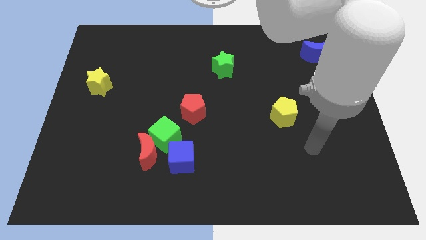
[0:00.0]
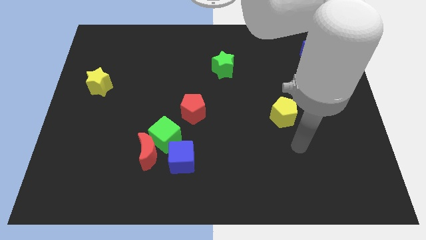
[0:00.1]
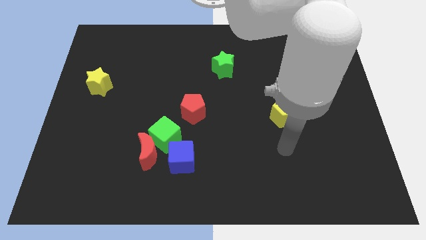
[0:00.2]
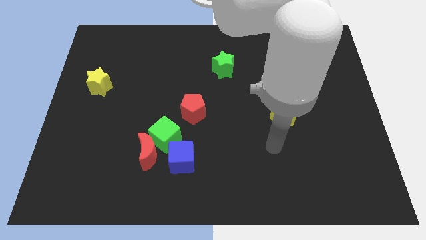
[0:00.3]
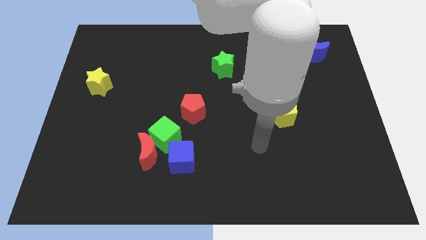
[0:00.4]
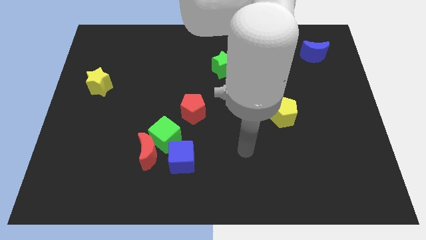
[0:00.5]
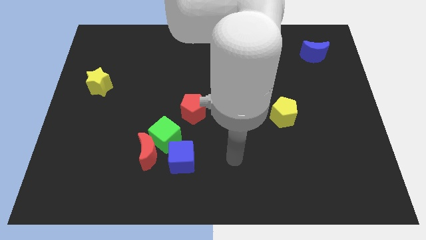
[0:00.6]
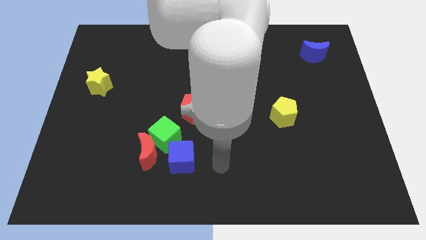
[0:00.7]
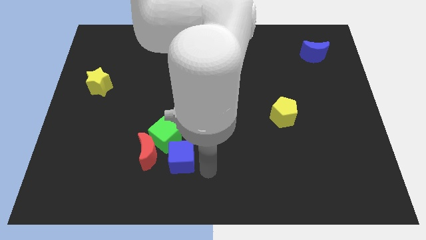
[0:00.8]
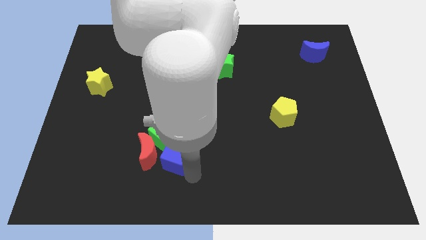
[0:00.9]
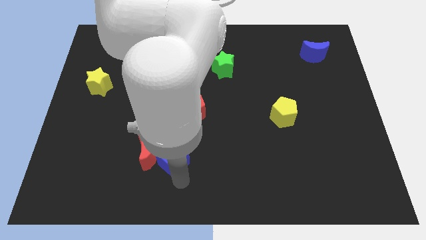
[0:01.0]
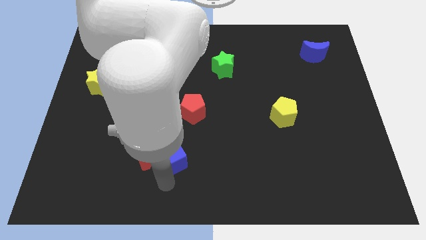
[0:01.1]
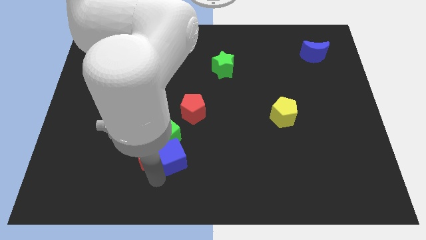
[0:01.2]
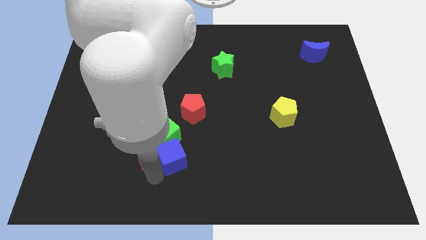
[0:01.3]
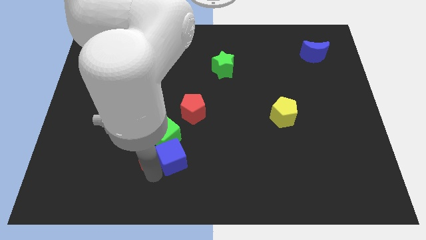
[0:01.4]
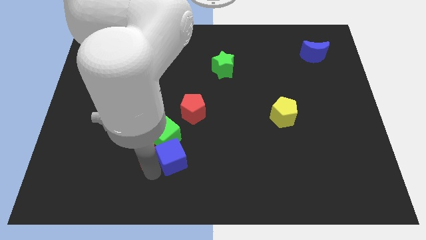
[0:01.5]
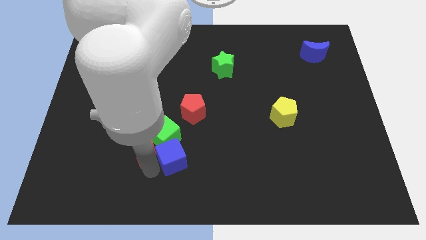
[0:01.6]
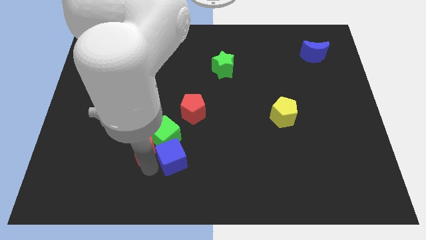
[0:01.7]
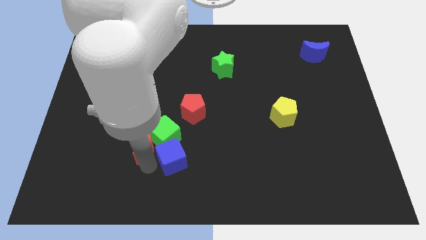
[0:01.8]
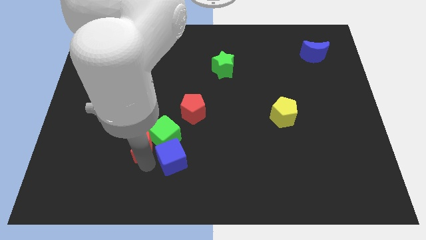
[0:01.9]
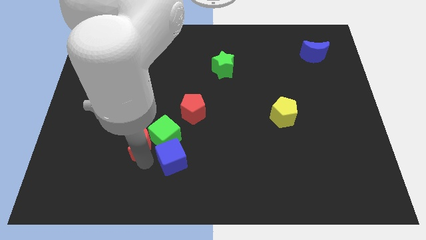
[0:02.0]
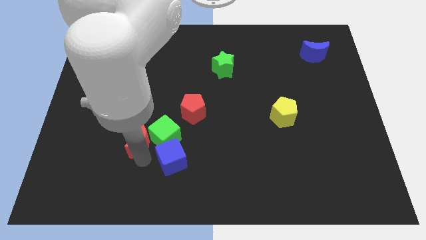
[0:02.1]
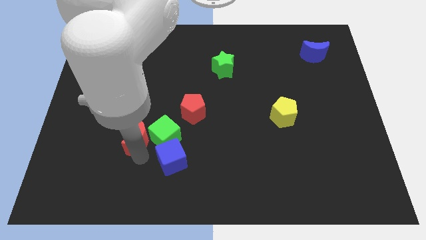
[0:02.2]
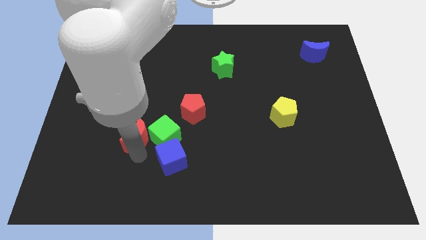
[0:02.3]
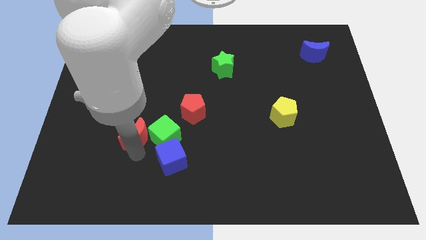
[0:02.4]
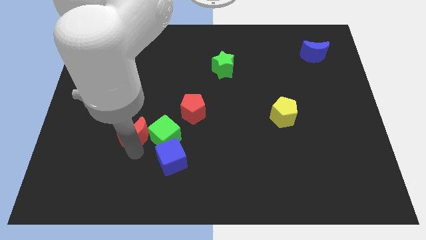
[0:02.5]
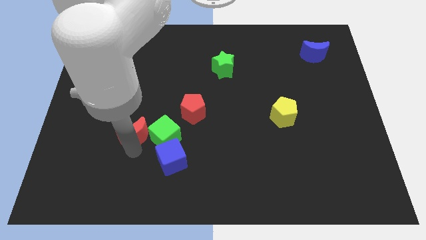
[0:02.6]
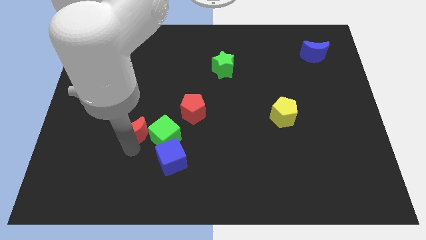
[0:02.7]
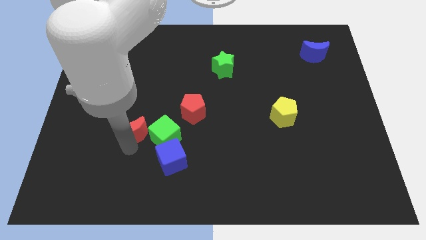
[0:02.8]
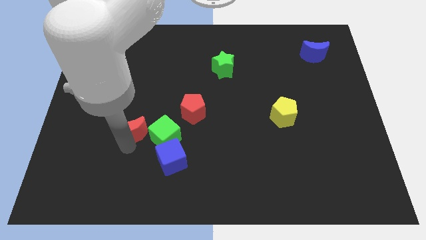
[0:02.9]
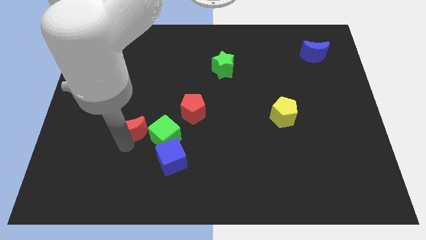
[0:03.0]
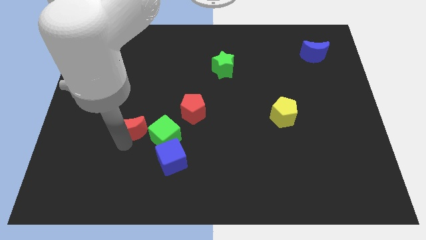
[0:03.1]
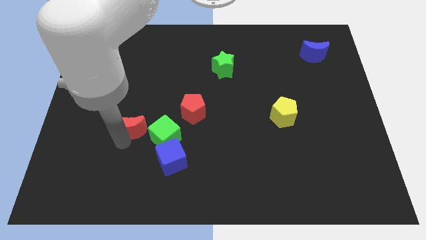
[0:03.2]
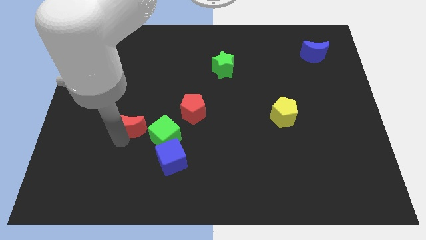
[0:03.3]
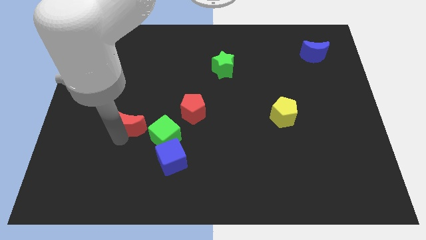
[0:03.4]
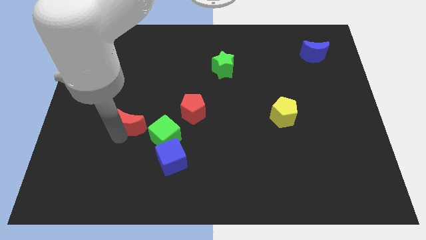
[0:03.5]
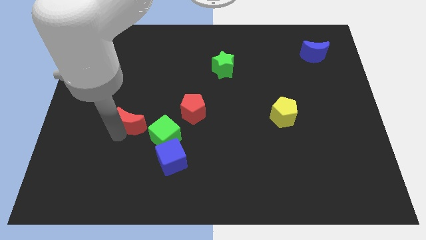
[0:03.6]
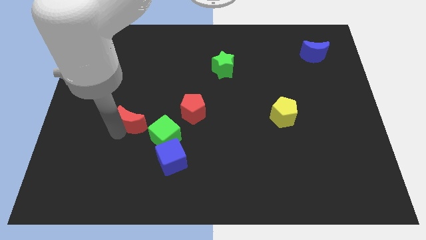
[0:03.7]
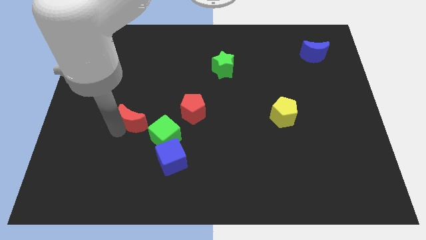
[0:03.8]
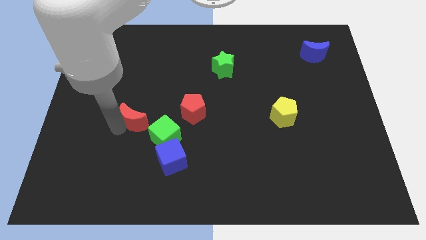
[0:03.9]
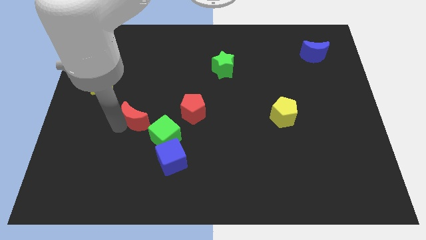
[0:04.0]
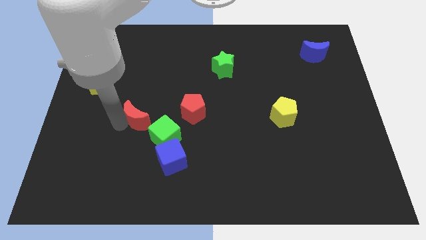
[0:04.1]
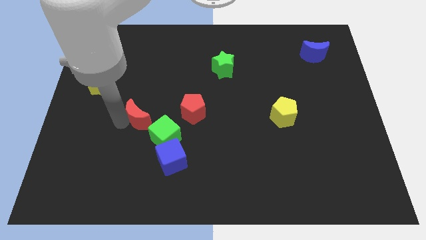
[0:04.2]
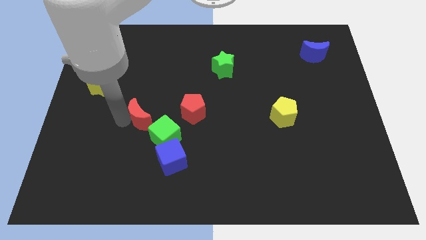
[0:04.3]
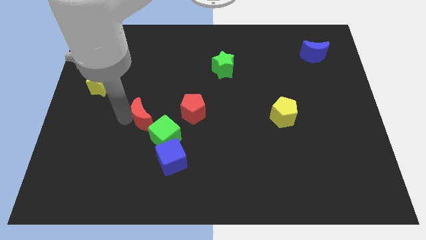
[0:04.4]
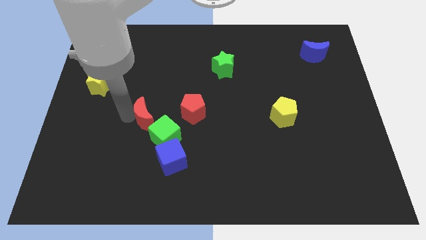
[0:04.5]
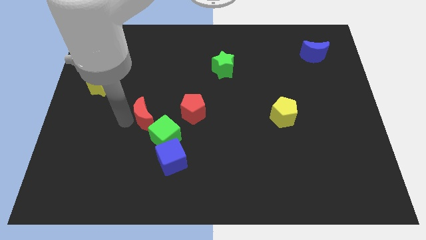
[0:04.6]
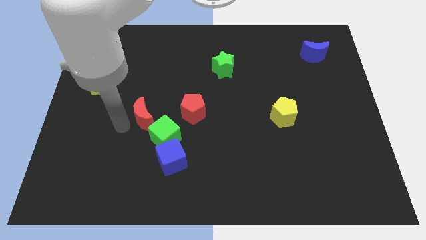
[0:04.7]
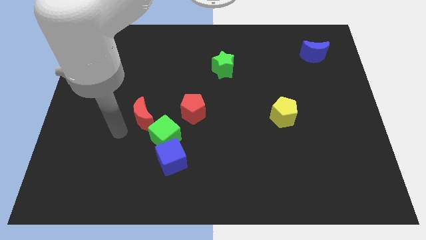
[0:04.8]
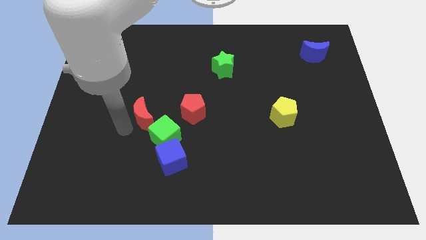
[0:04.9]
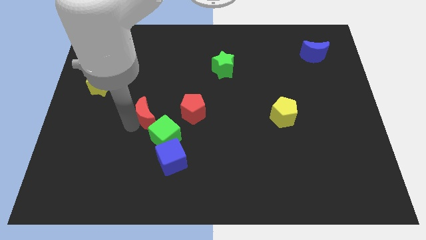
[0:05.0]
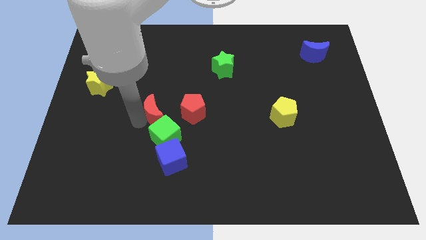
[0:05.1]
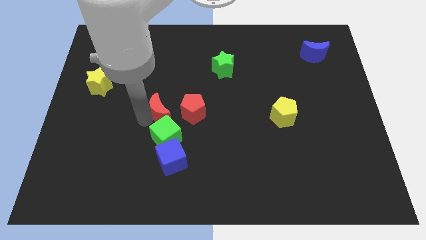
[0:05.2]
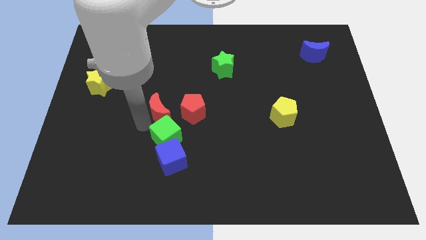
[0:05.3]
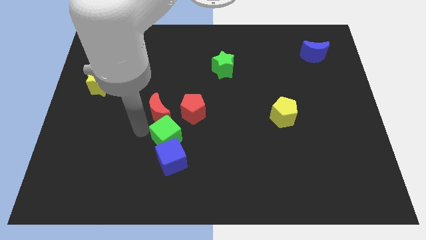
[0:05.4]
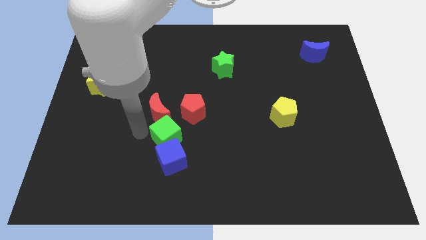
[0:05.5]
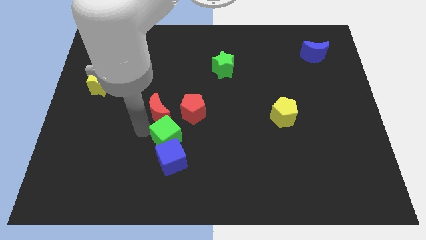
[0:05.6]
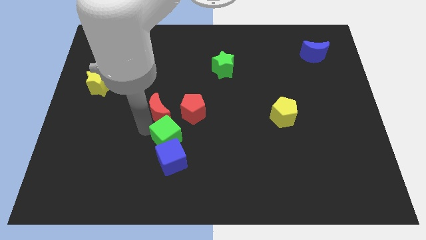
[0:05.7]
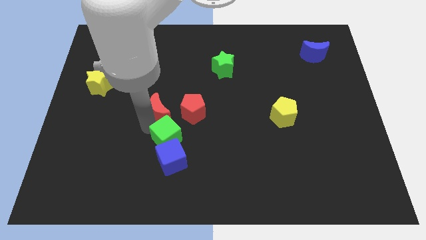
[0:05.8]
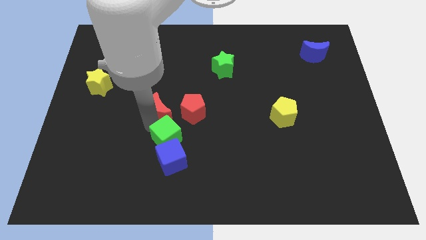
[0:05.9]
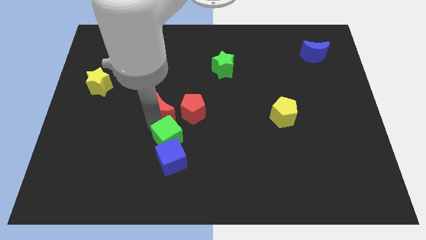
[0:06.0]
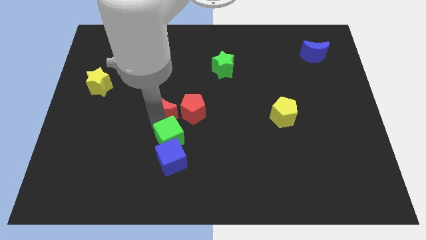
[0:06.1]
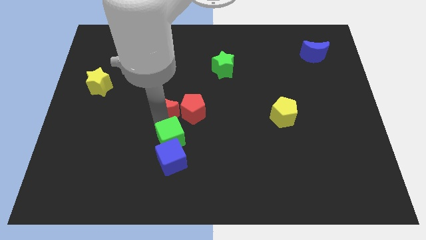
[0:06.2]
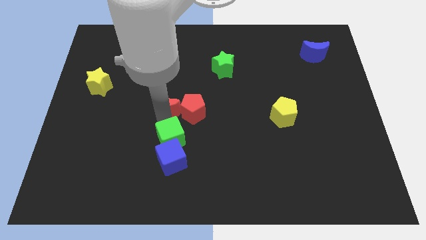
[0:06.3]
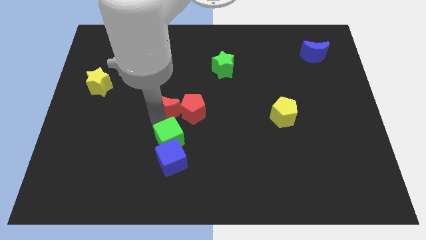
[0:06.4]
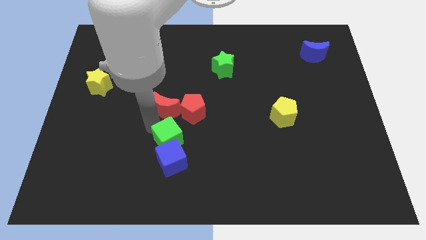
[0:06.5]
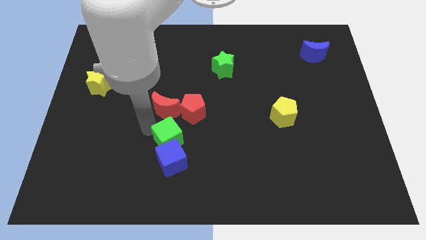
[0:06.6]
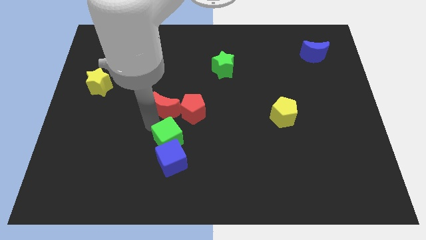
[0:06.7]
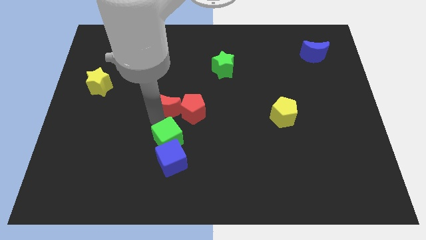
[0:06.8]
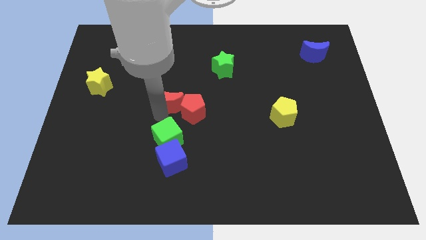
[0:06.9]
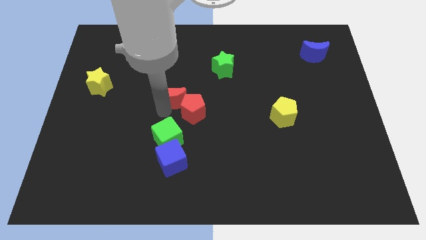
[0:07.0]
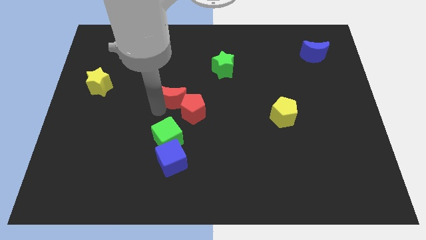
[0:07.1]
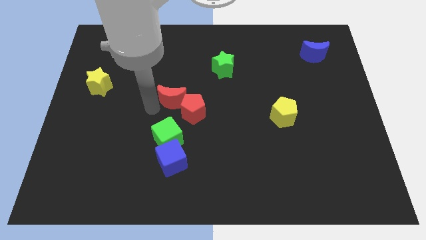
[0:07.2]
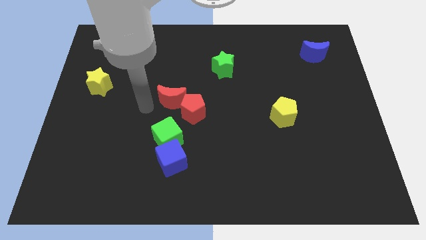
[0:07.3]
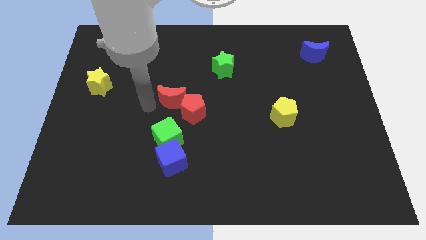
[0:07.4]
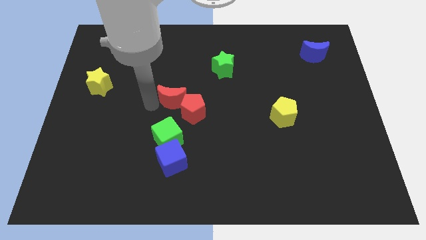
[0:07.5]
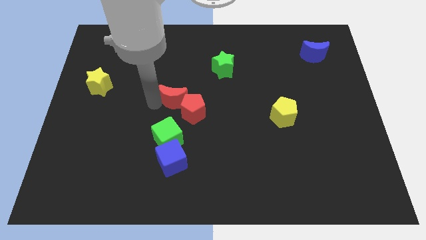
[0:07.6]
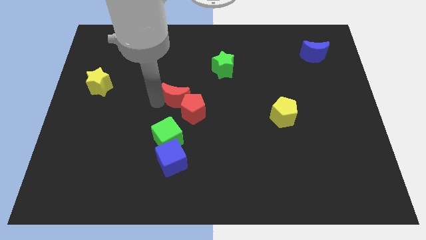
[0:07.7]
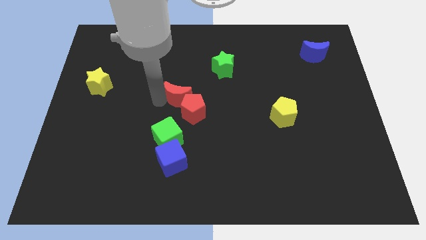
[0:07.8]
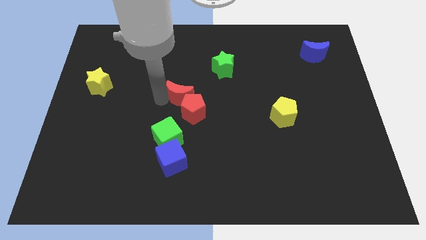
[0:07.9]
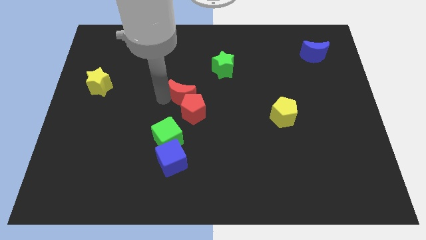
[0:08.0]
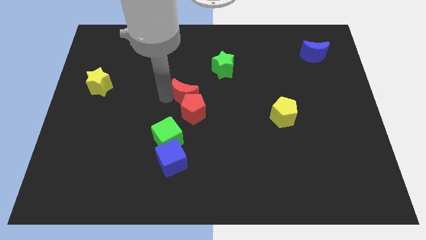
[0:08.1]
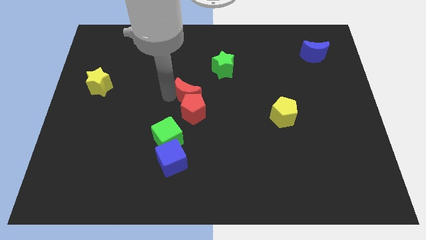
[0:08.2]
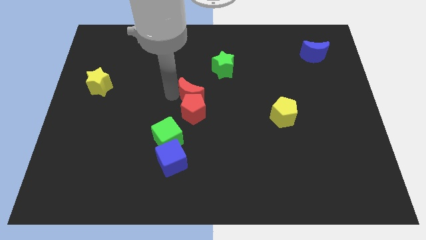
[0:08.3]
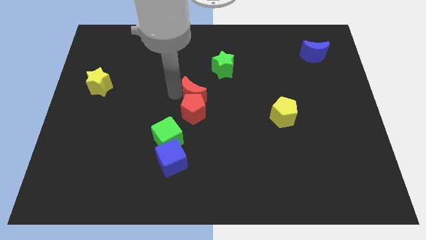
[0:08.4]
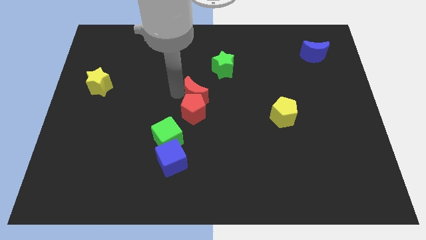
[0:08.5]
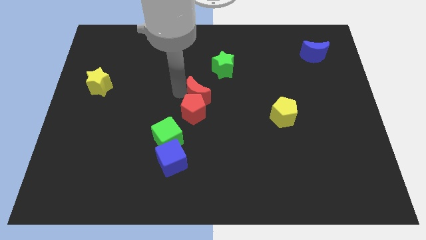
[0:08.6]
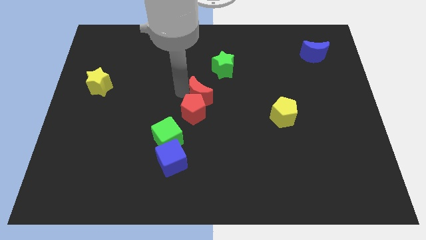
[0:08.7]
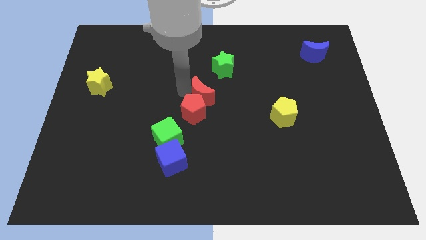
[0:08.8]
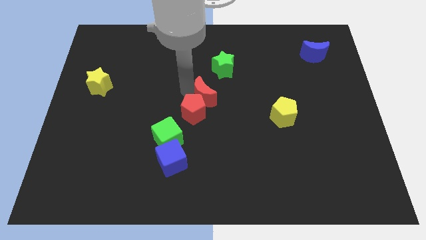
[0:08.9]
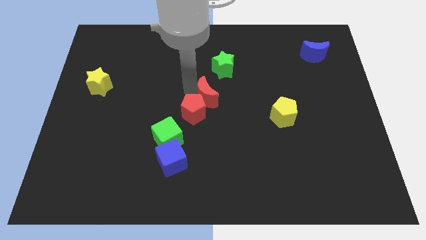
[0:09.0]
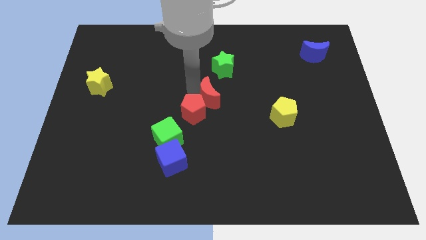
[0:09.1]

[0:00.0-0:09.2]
push the red moon upwards and right diagonally
